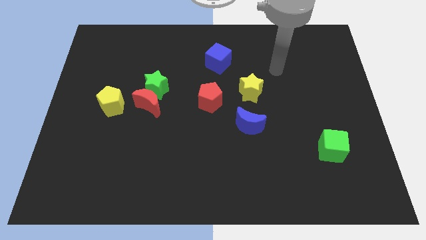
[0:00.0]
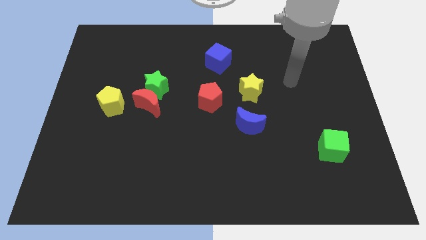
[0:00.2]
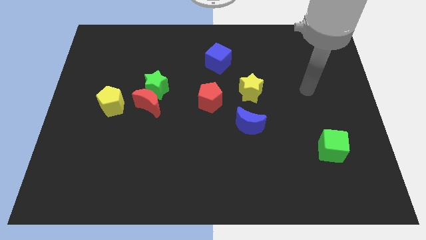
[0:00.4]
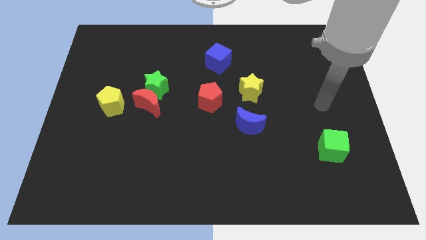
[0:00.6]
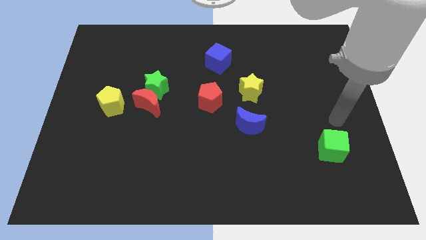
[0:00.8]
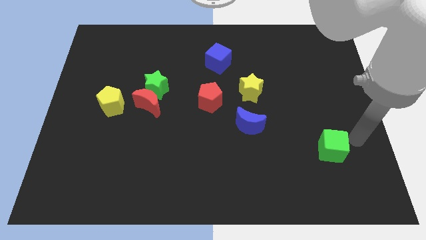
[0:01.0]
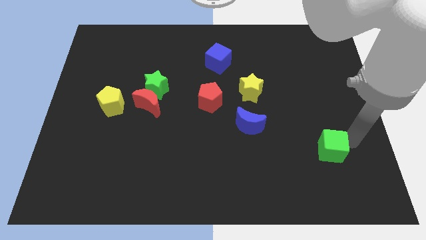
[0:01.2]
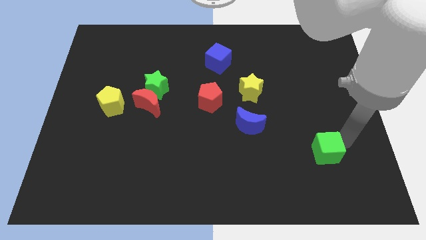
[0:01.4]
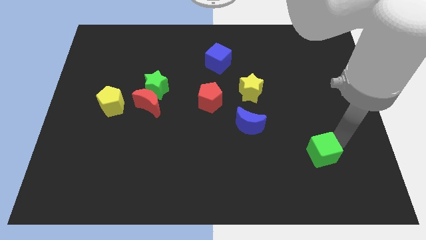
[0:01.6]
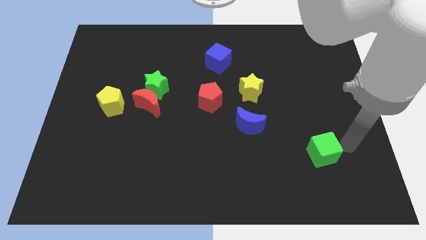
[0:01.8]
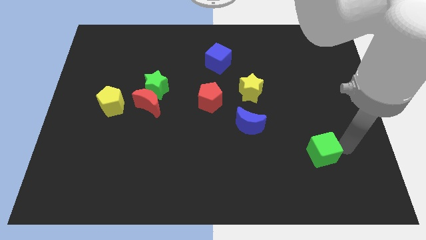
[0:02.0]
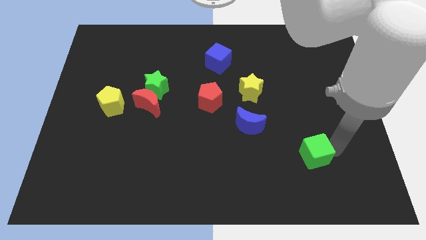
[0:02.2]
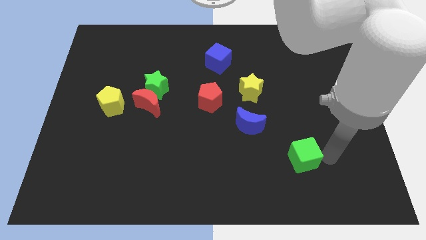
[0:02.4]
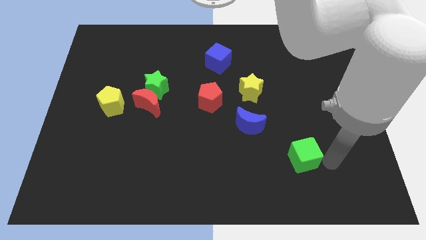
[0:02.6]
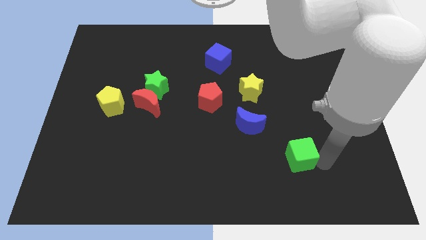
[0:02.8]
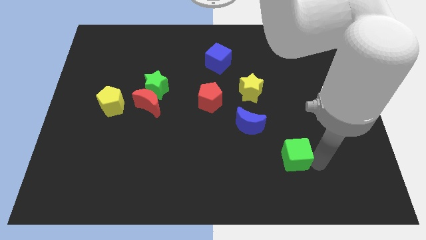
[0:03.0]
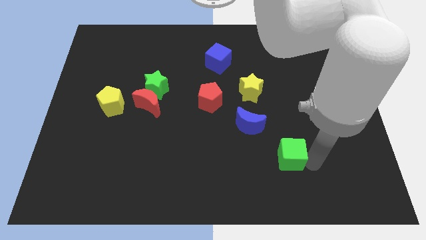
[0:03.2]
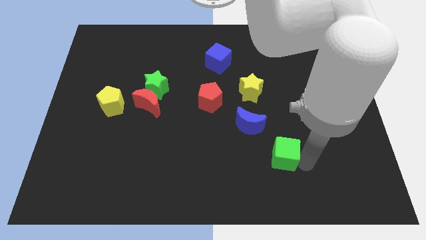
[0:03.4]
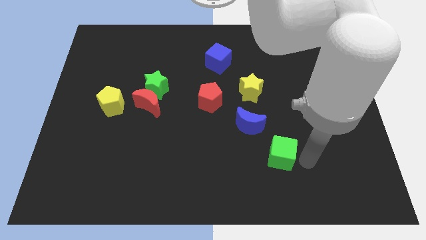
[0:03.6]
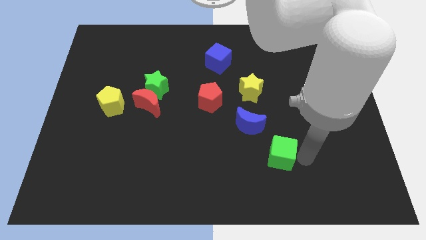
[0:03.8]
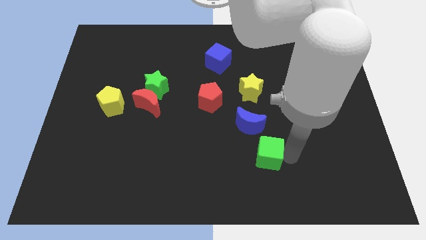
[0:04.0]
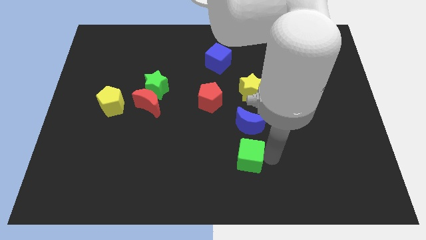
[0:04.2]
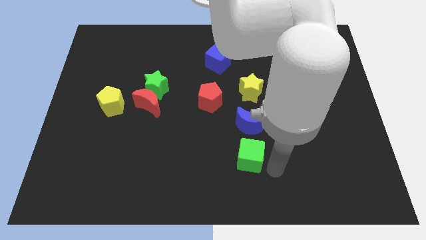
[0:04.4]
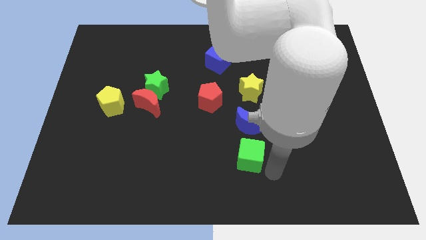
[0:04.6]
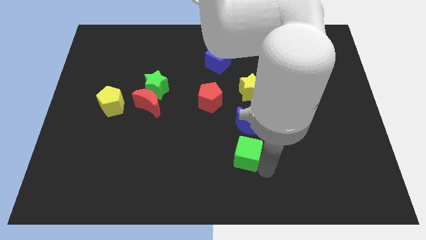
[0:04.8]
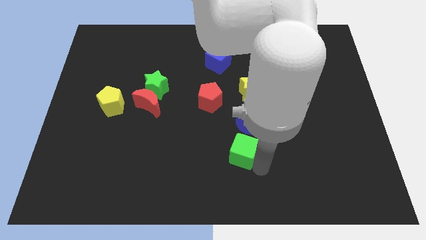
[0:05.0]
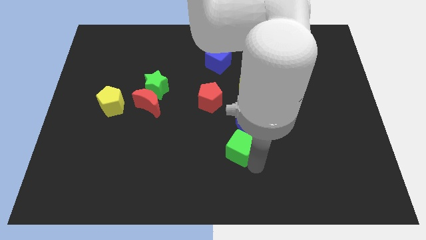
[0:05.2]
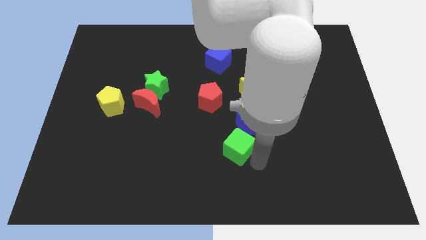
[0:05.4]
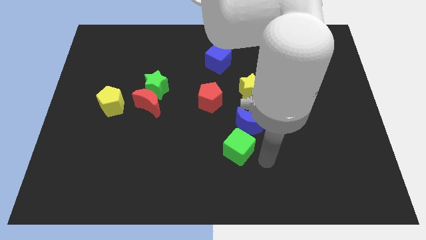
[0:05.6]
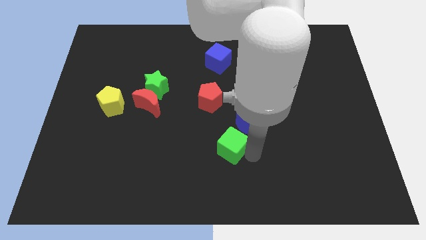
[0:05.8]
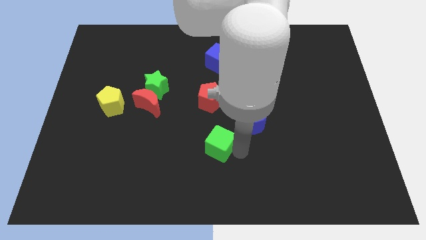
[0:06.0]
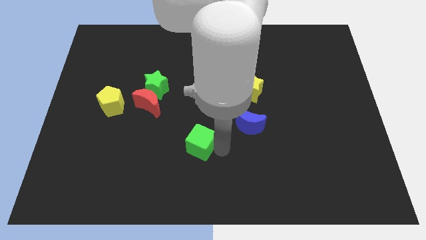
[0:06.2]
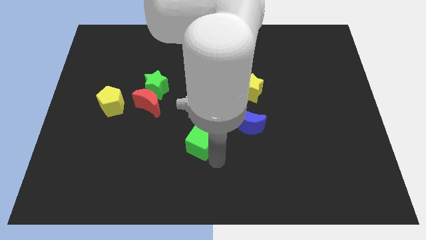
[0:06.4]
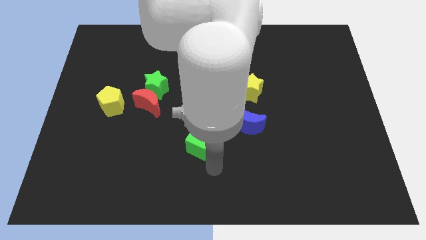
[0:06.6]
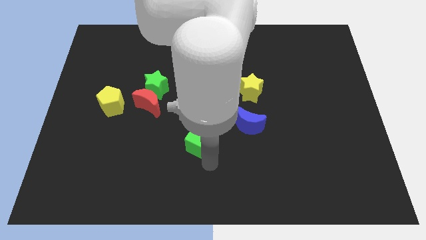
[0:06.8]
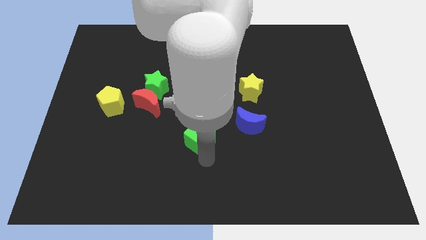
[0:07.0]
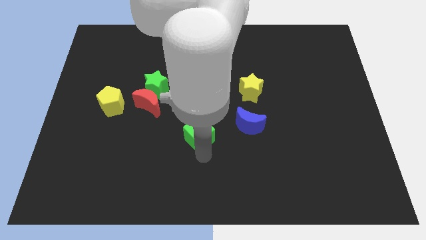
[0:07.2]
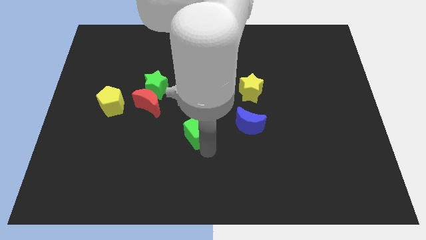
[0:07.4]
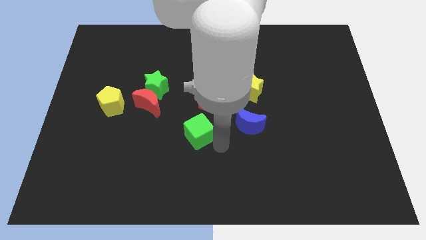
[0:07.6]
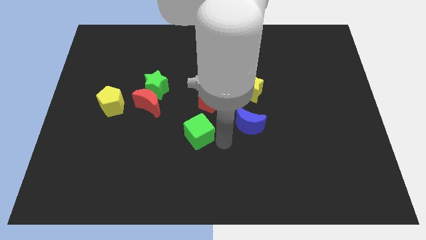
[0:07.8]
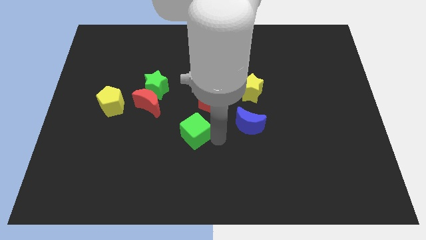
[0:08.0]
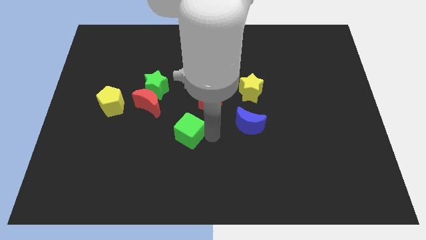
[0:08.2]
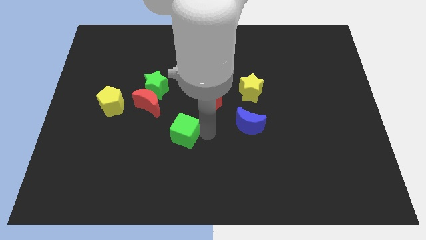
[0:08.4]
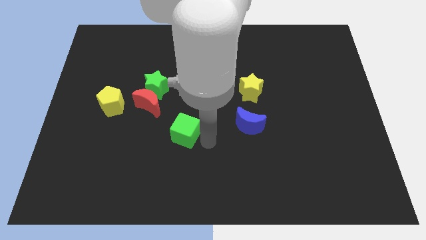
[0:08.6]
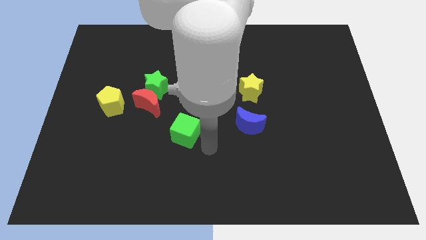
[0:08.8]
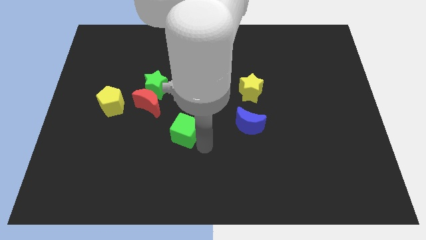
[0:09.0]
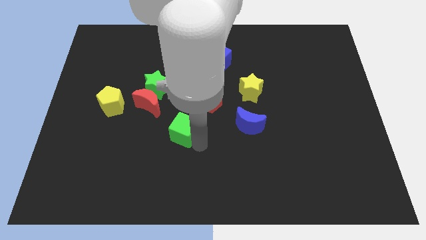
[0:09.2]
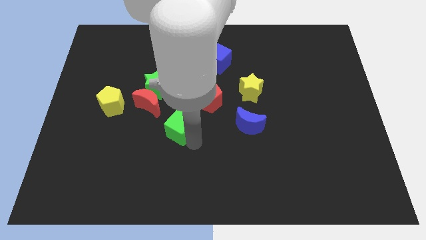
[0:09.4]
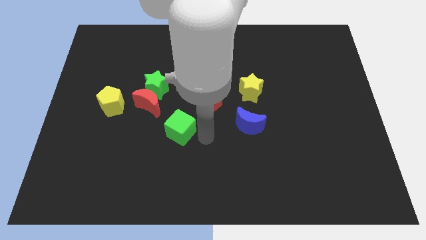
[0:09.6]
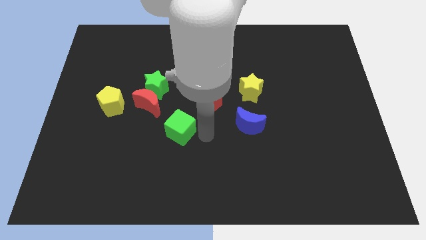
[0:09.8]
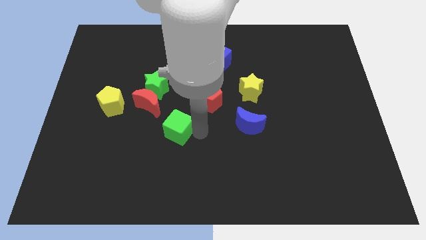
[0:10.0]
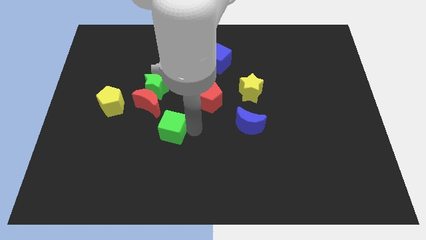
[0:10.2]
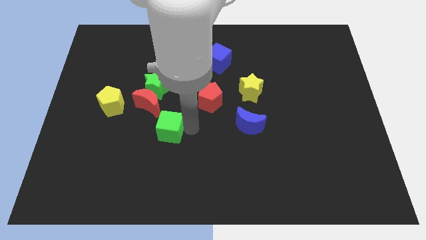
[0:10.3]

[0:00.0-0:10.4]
slide the green cube below the green star

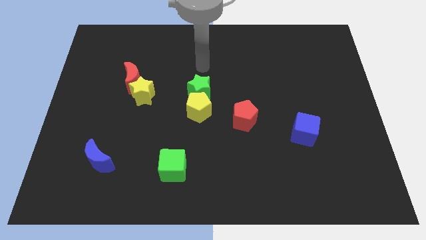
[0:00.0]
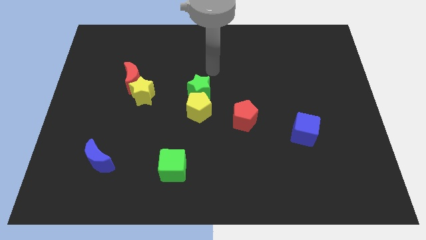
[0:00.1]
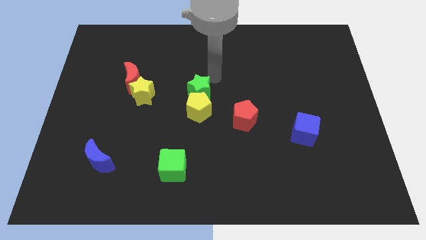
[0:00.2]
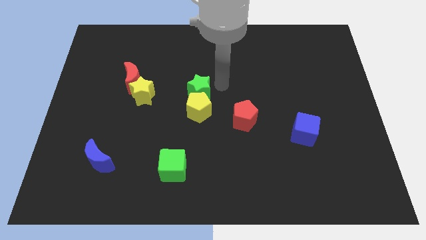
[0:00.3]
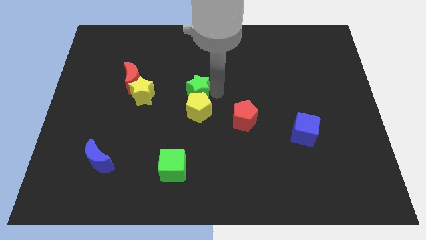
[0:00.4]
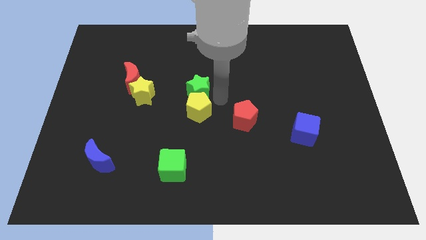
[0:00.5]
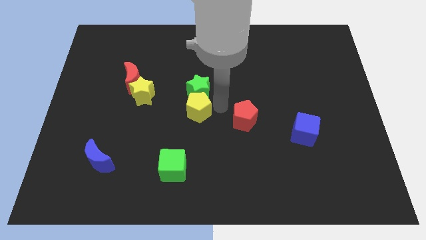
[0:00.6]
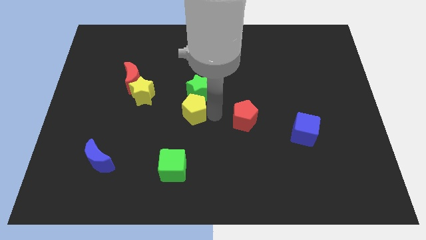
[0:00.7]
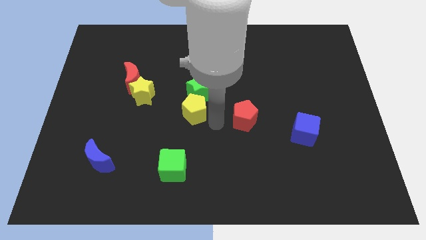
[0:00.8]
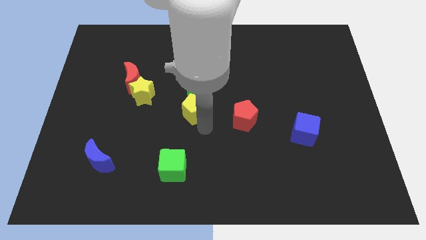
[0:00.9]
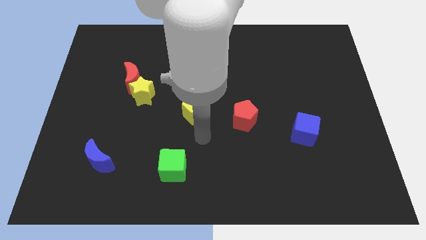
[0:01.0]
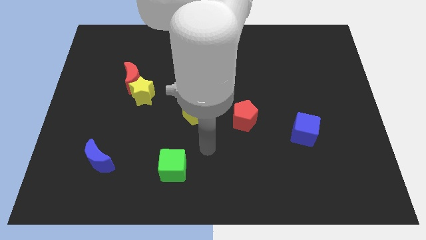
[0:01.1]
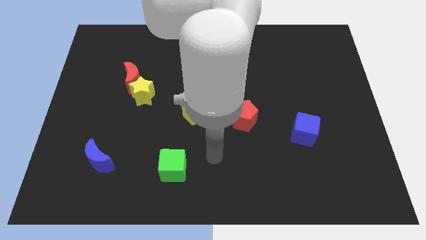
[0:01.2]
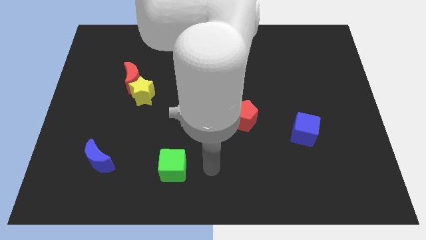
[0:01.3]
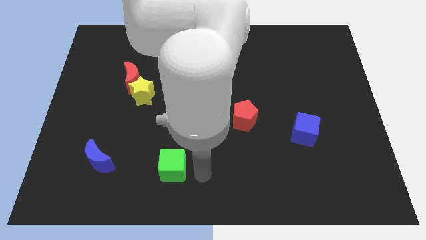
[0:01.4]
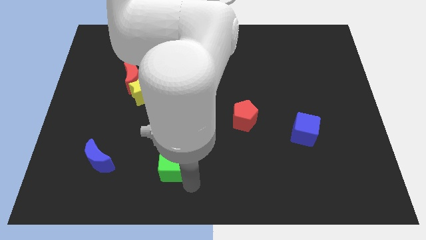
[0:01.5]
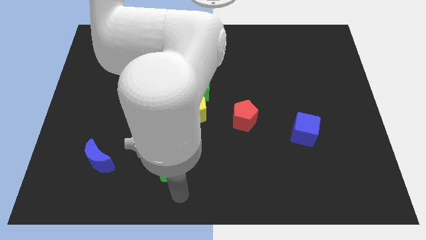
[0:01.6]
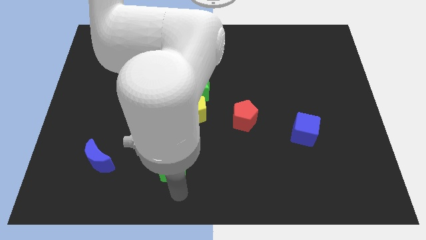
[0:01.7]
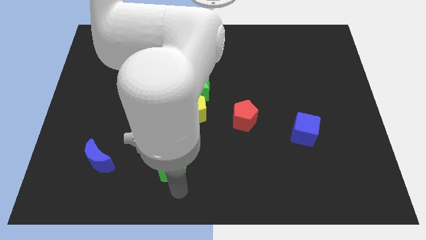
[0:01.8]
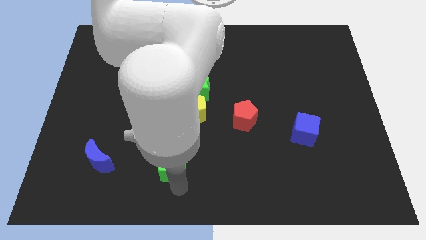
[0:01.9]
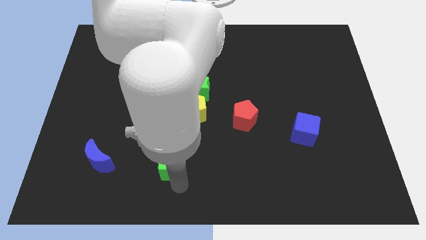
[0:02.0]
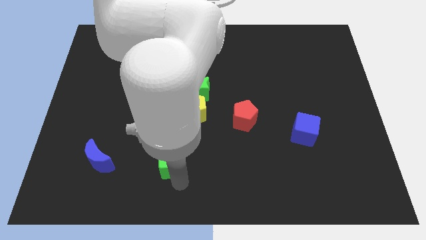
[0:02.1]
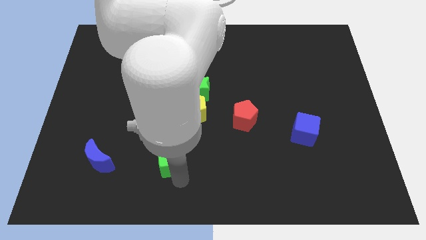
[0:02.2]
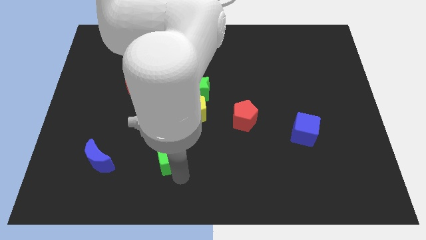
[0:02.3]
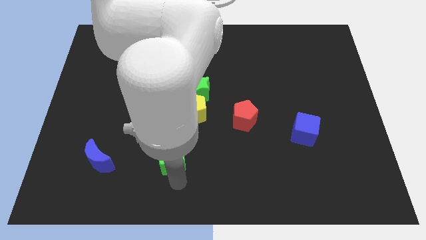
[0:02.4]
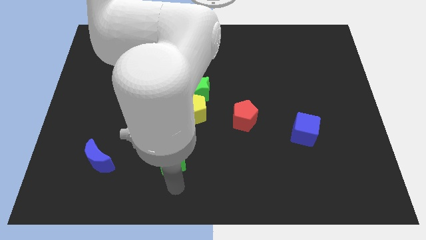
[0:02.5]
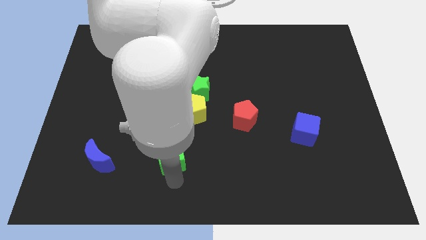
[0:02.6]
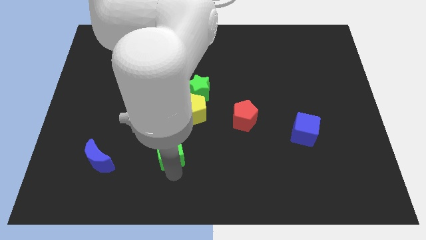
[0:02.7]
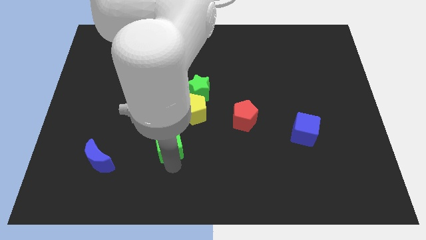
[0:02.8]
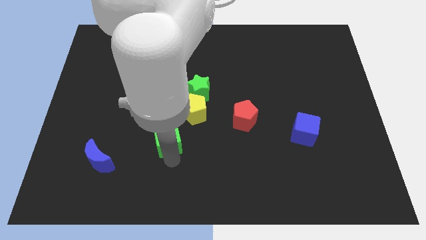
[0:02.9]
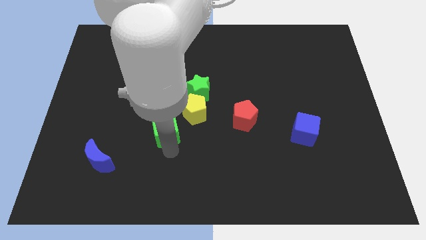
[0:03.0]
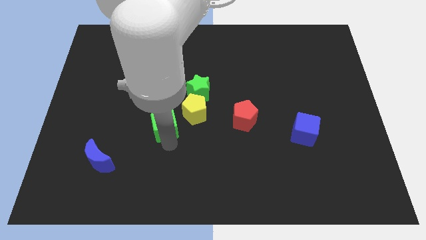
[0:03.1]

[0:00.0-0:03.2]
slide the green cube to the bottom right side of the yellow star
